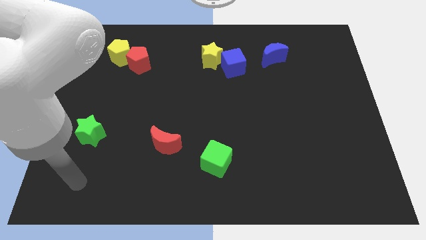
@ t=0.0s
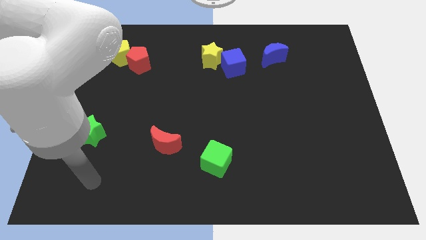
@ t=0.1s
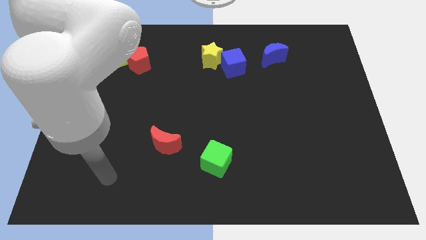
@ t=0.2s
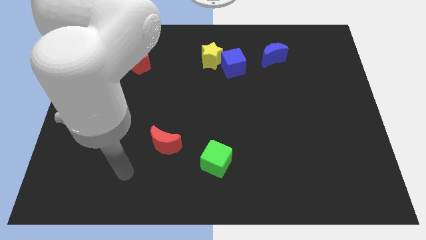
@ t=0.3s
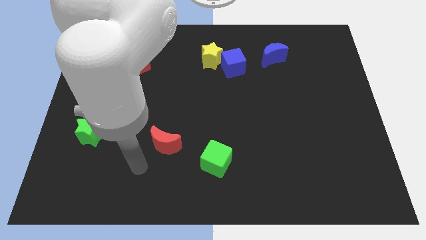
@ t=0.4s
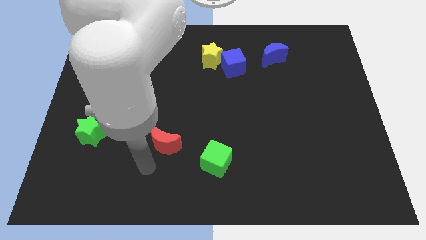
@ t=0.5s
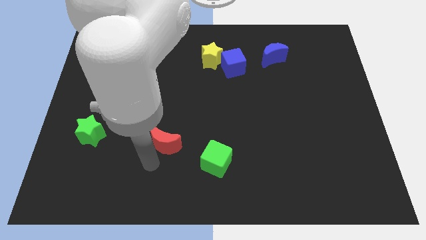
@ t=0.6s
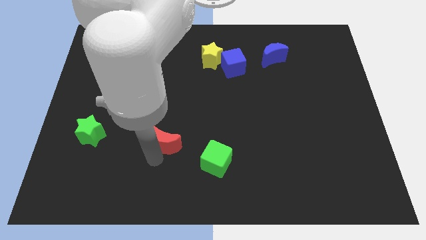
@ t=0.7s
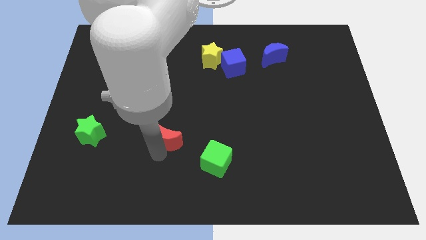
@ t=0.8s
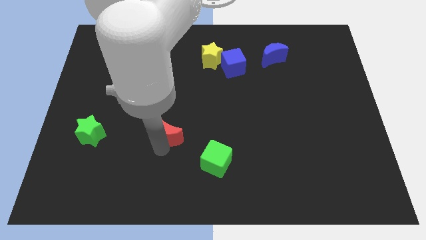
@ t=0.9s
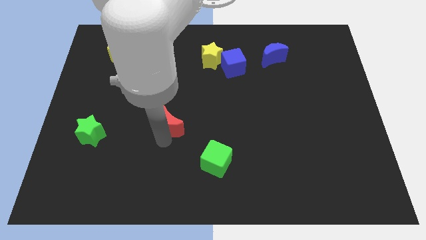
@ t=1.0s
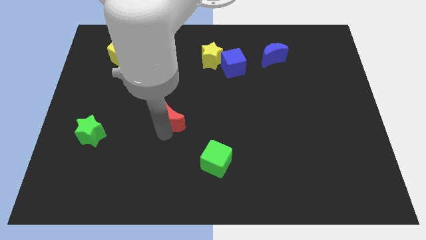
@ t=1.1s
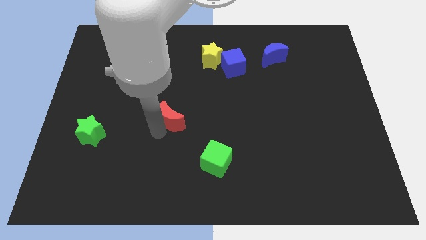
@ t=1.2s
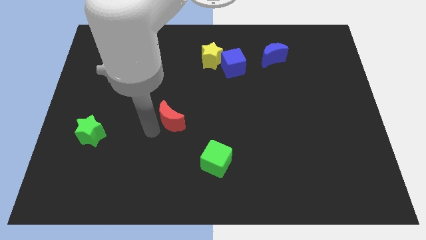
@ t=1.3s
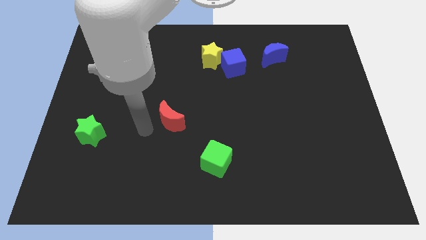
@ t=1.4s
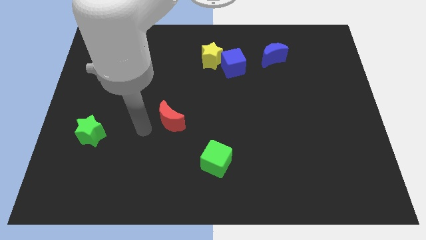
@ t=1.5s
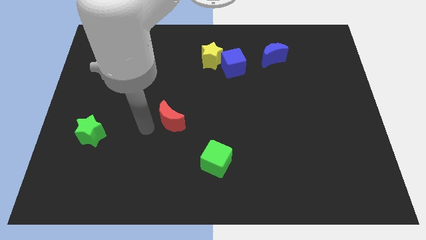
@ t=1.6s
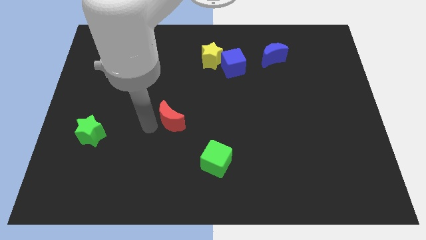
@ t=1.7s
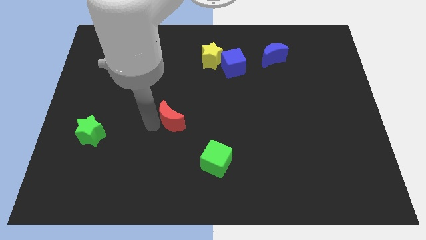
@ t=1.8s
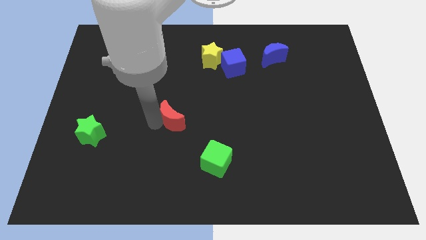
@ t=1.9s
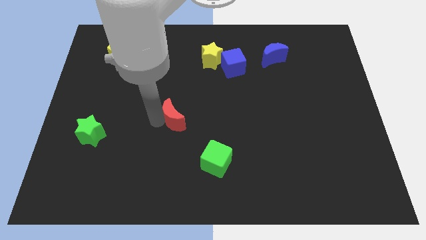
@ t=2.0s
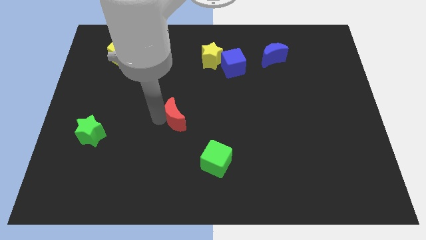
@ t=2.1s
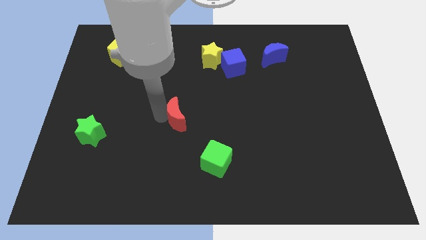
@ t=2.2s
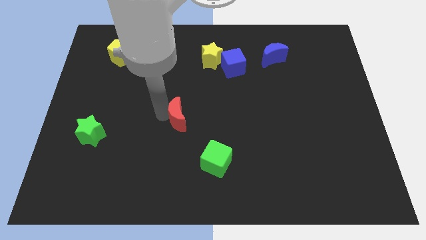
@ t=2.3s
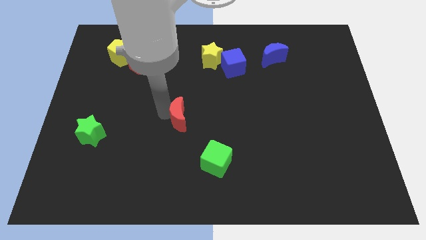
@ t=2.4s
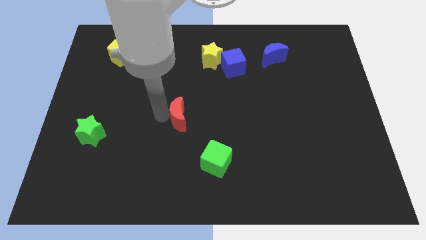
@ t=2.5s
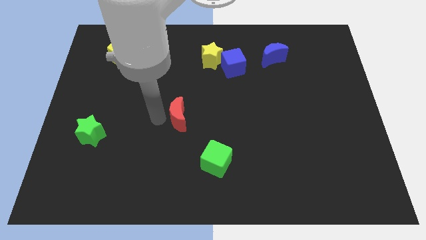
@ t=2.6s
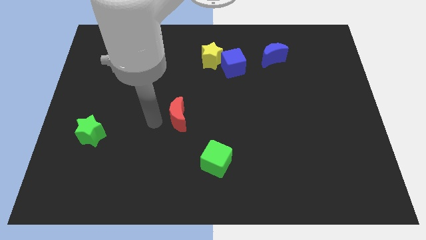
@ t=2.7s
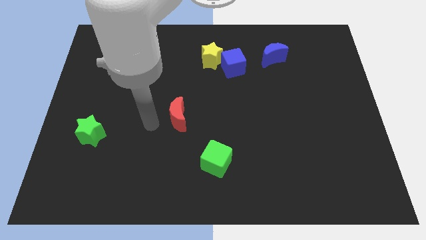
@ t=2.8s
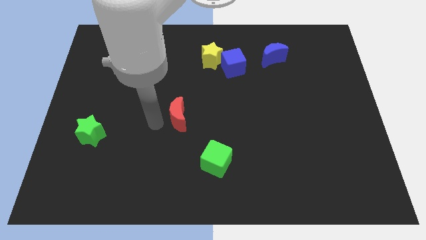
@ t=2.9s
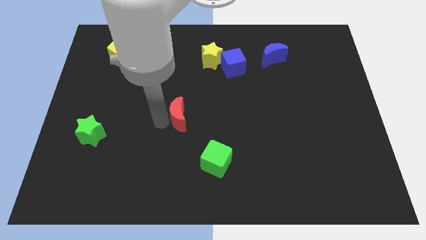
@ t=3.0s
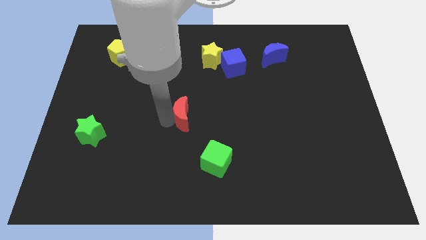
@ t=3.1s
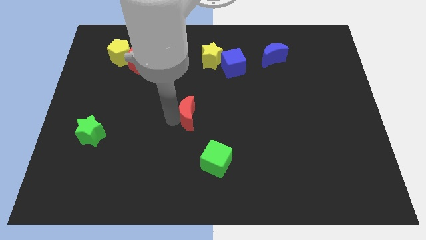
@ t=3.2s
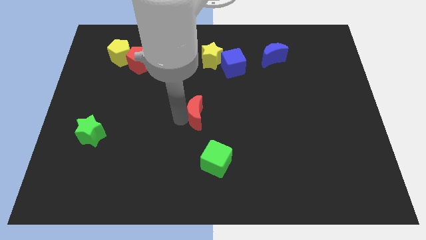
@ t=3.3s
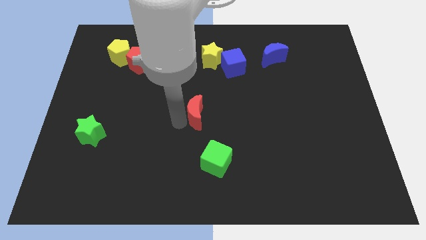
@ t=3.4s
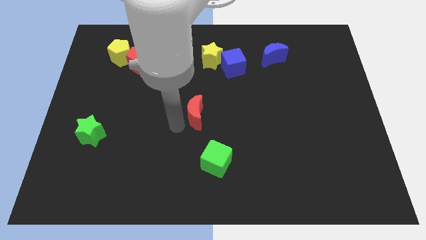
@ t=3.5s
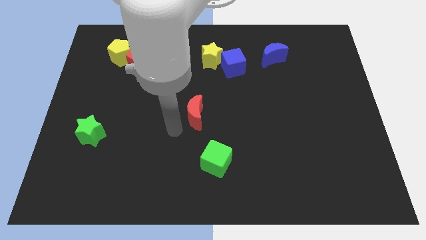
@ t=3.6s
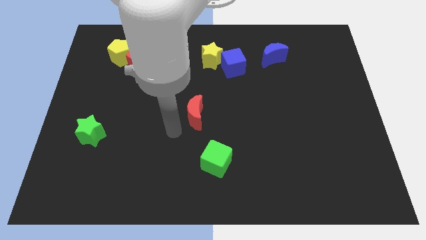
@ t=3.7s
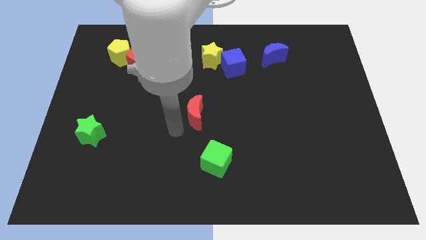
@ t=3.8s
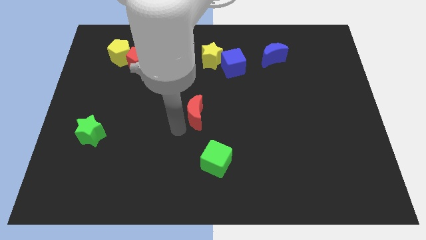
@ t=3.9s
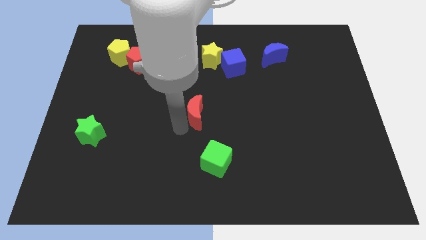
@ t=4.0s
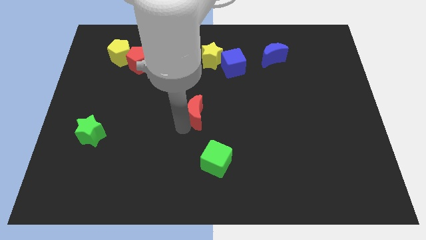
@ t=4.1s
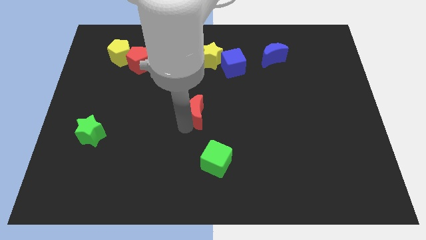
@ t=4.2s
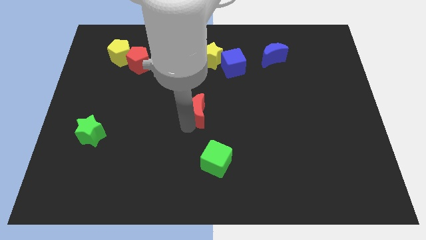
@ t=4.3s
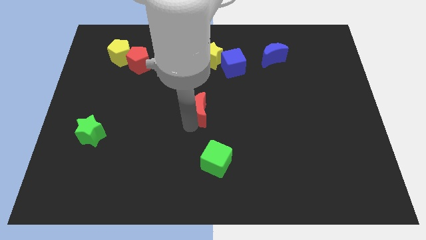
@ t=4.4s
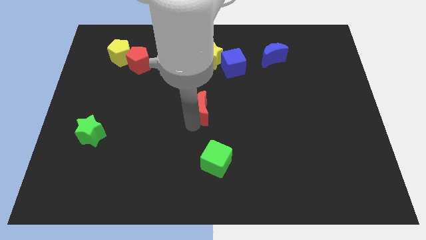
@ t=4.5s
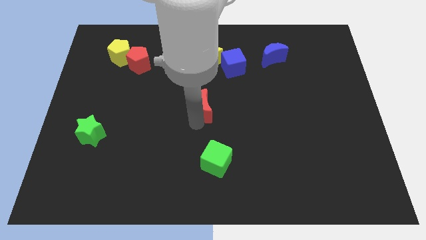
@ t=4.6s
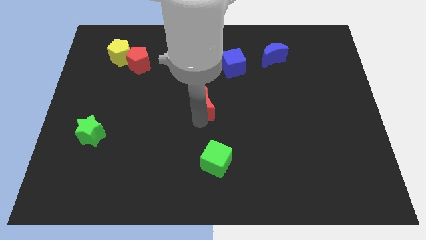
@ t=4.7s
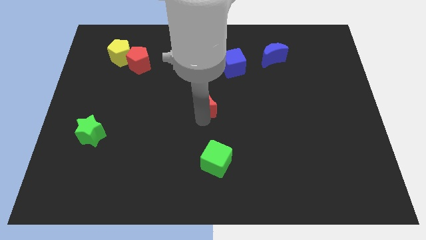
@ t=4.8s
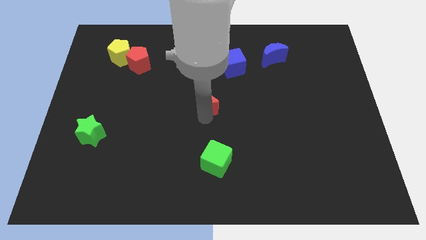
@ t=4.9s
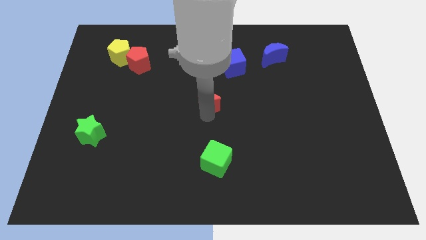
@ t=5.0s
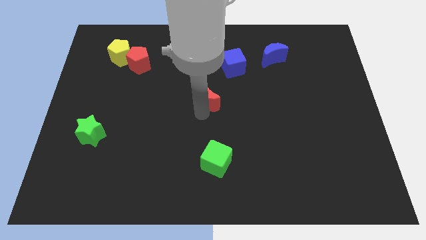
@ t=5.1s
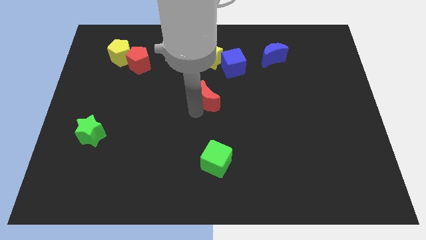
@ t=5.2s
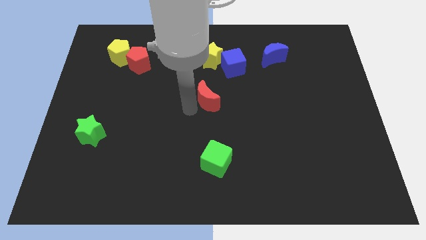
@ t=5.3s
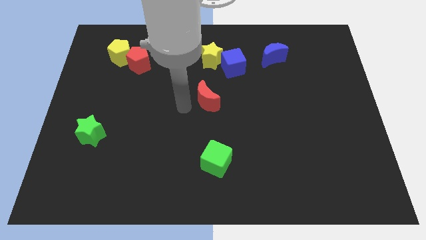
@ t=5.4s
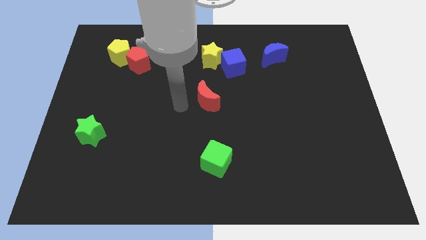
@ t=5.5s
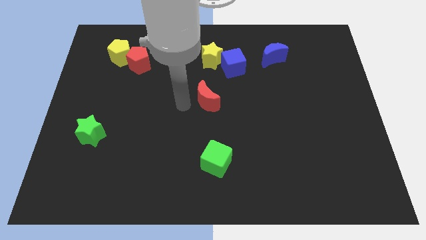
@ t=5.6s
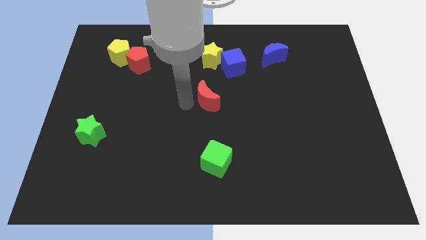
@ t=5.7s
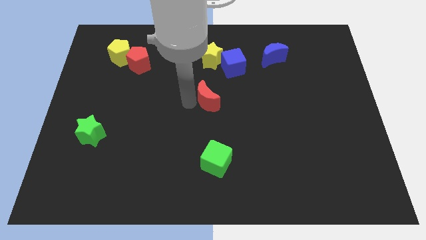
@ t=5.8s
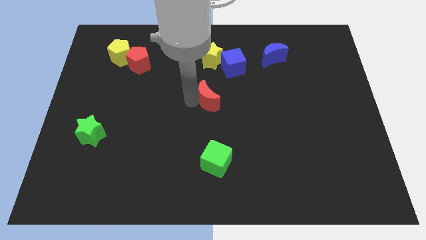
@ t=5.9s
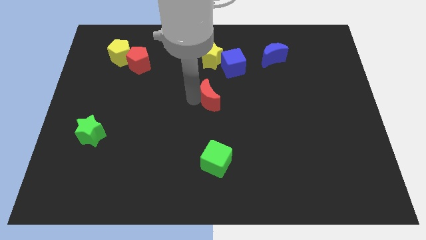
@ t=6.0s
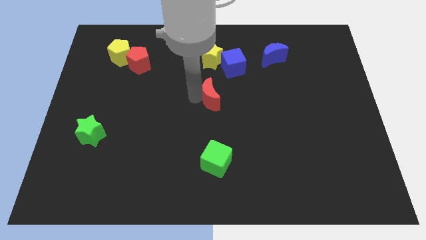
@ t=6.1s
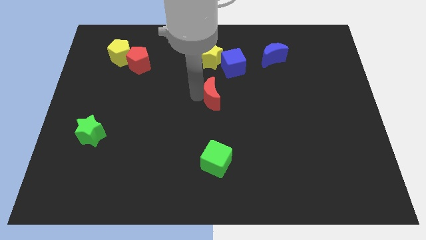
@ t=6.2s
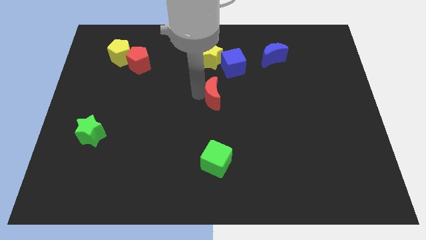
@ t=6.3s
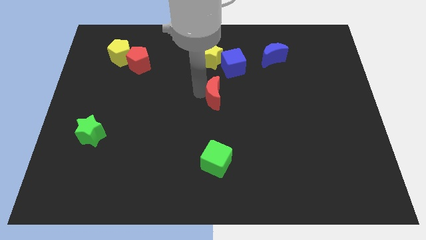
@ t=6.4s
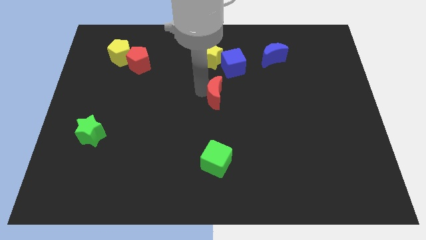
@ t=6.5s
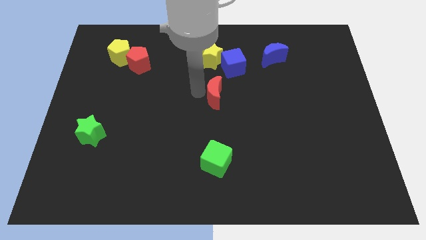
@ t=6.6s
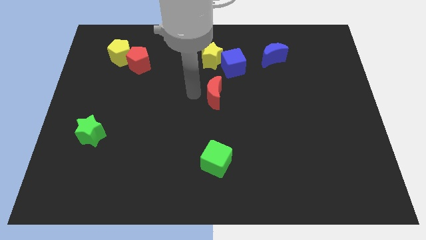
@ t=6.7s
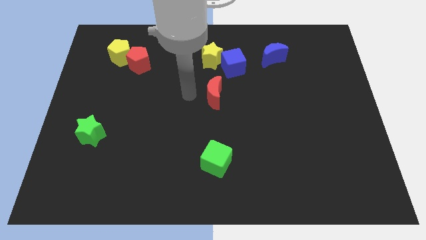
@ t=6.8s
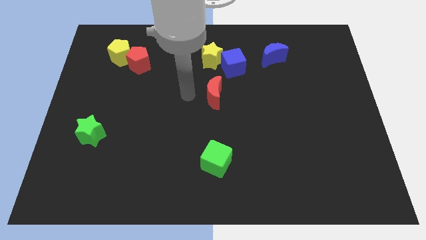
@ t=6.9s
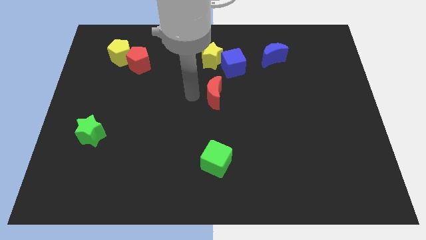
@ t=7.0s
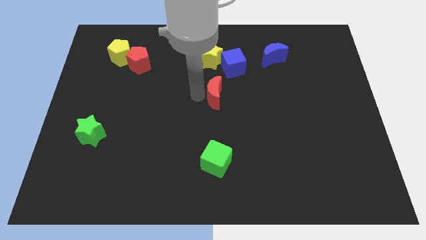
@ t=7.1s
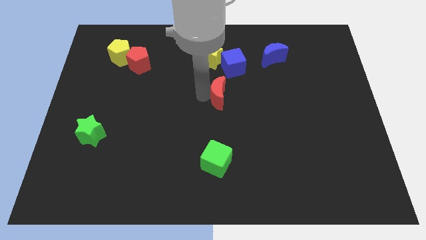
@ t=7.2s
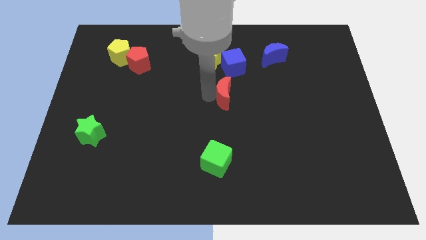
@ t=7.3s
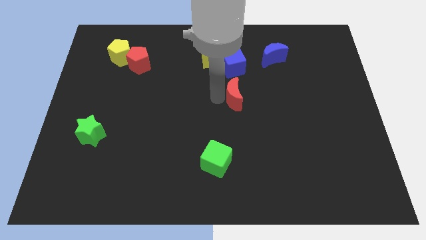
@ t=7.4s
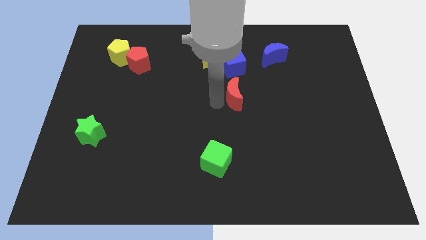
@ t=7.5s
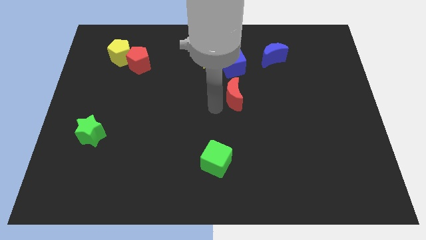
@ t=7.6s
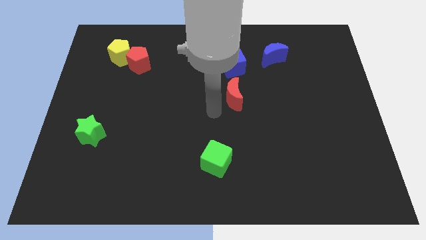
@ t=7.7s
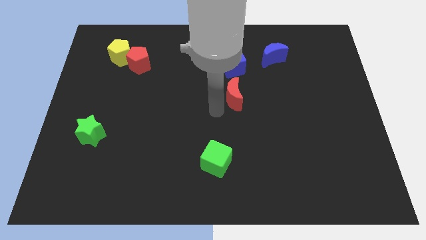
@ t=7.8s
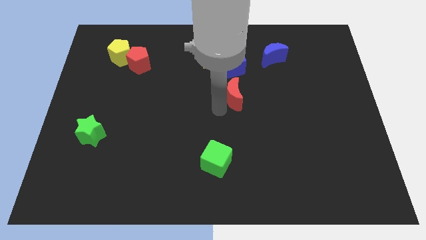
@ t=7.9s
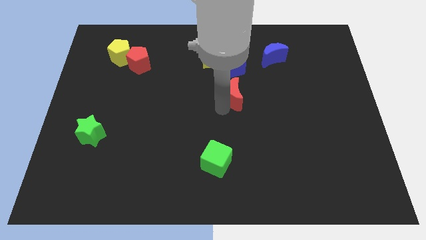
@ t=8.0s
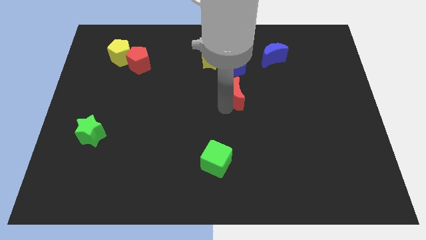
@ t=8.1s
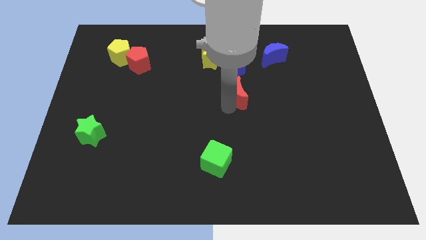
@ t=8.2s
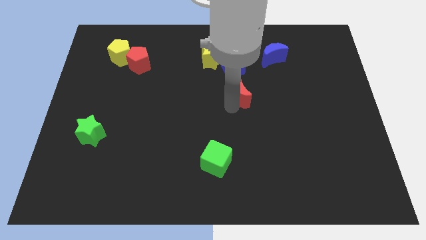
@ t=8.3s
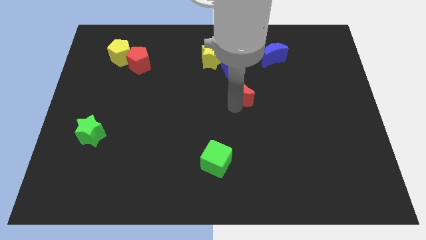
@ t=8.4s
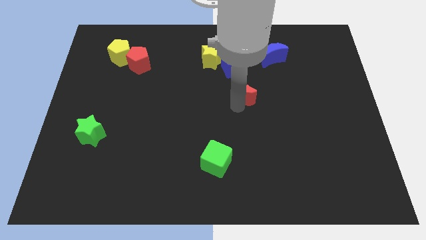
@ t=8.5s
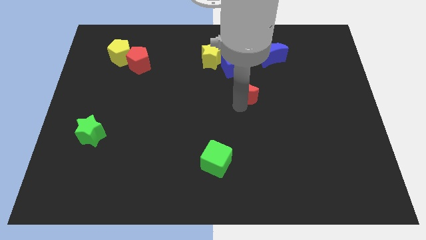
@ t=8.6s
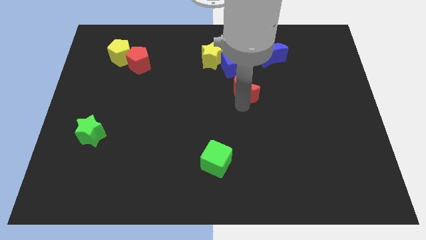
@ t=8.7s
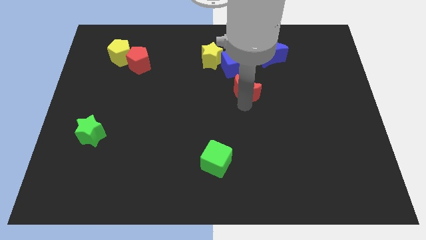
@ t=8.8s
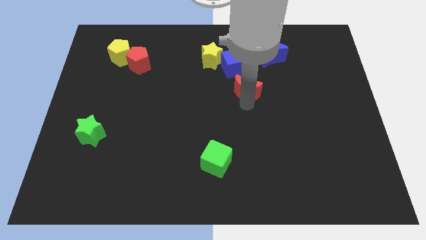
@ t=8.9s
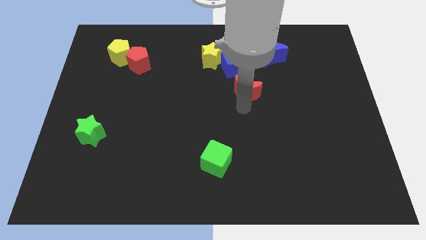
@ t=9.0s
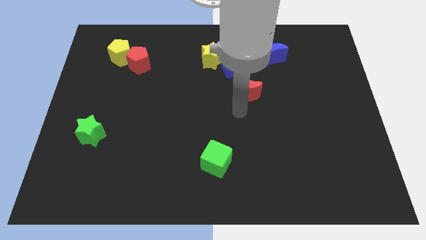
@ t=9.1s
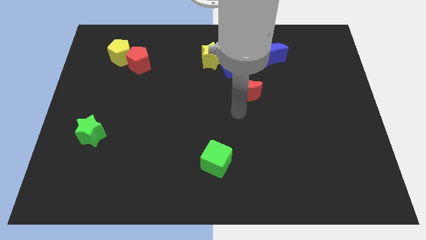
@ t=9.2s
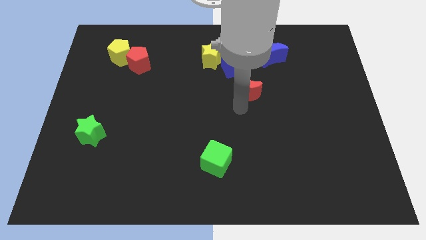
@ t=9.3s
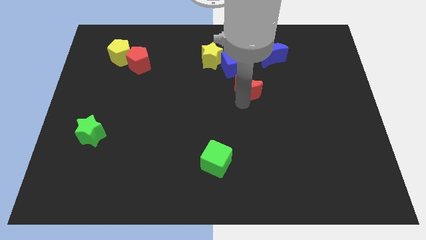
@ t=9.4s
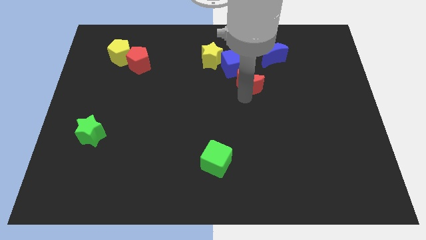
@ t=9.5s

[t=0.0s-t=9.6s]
move the red moon to the bottom left side of the blue moon
